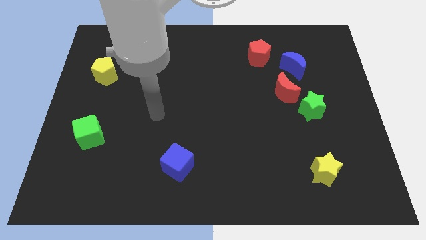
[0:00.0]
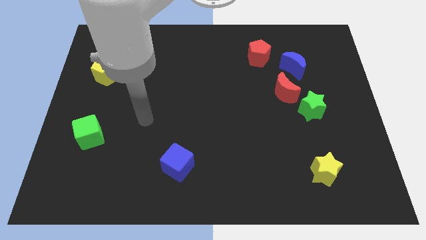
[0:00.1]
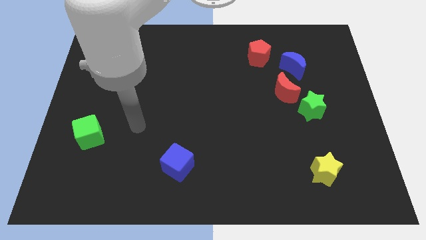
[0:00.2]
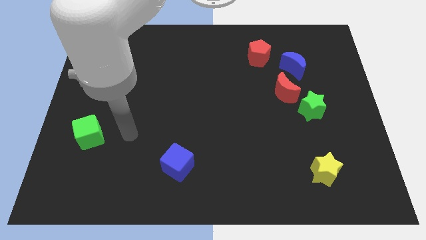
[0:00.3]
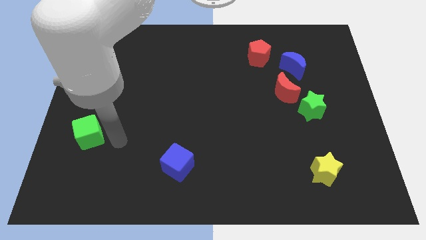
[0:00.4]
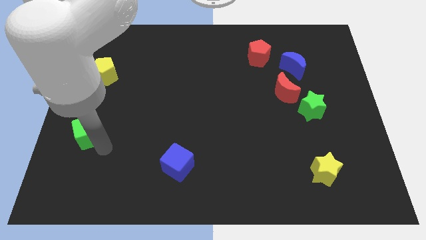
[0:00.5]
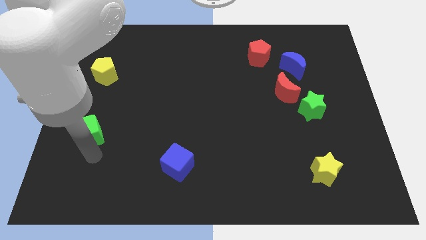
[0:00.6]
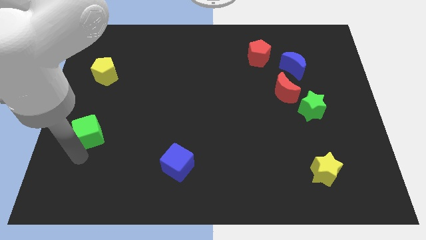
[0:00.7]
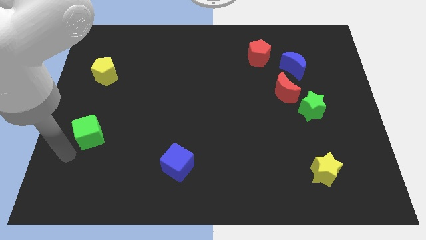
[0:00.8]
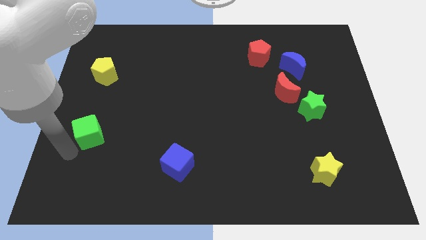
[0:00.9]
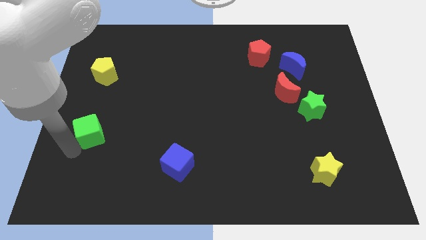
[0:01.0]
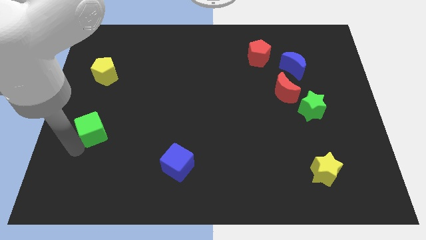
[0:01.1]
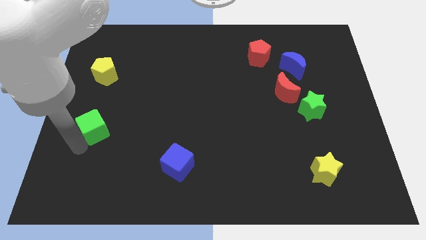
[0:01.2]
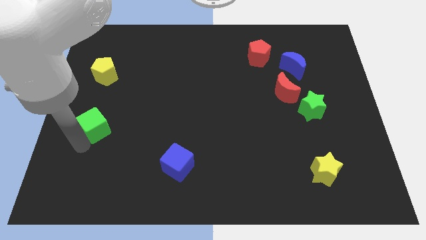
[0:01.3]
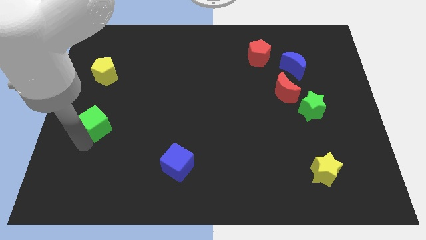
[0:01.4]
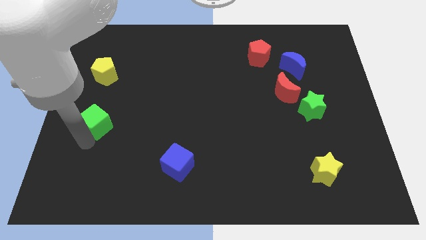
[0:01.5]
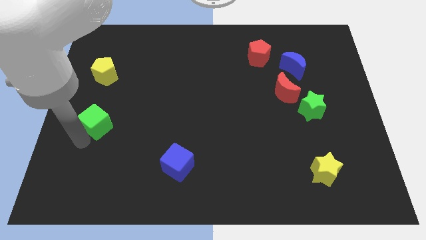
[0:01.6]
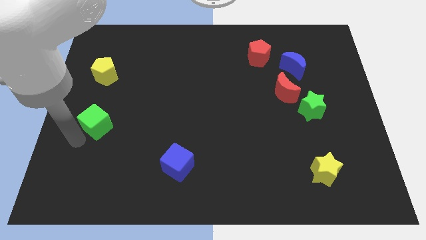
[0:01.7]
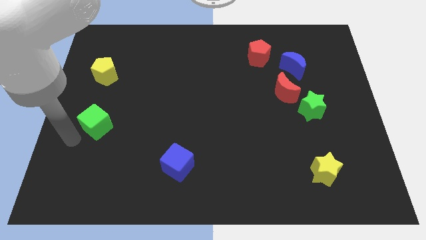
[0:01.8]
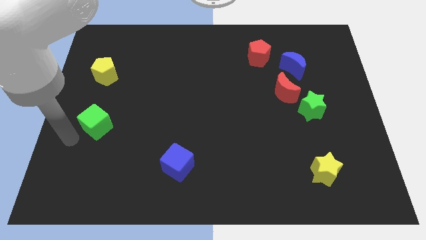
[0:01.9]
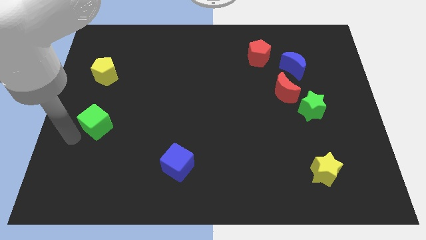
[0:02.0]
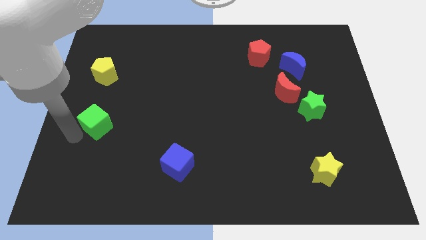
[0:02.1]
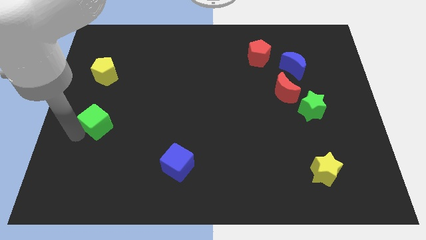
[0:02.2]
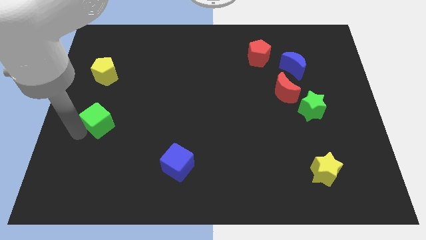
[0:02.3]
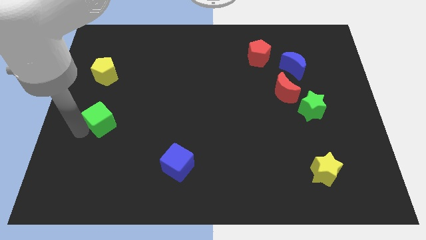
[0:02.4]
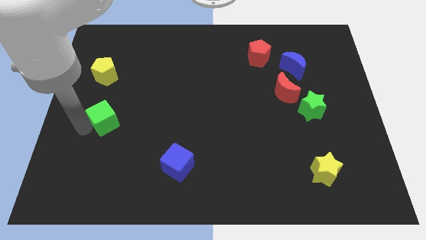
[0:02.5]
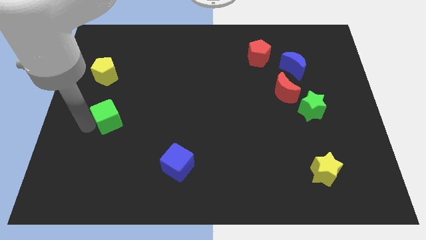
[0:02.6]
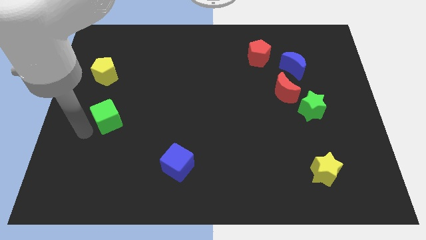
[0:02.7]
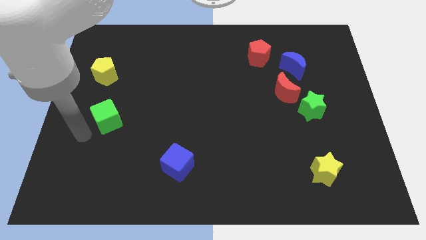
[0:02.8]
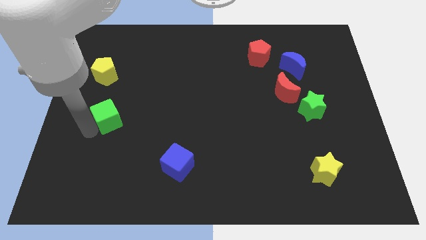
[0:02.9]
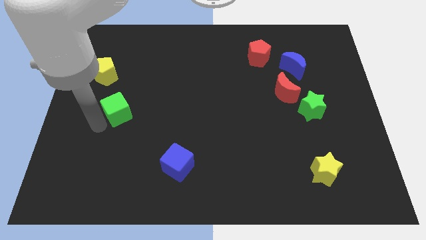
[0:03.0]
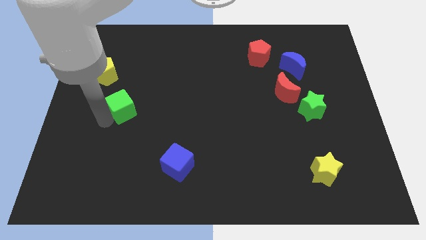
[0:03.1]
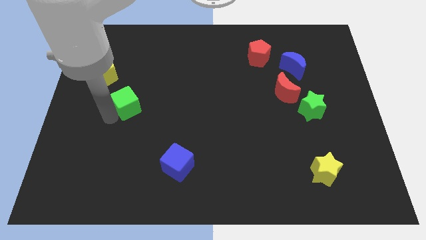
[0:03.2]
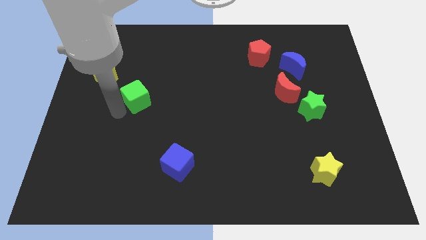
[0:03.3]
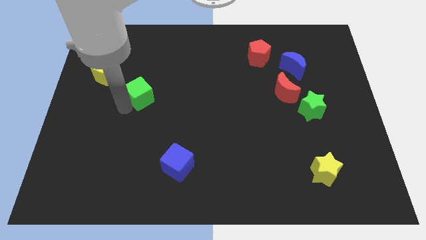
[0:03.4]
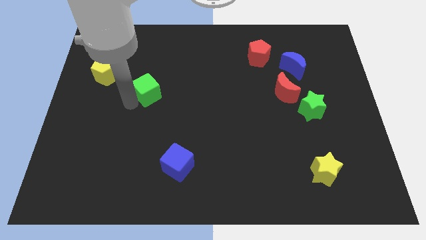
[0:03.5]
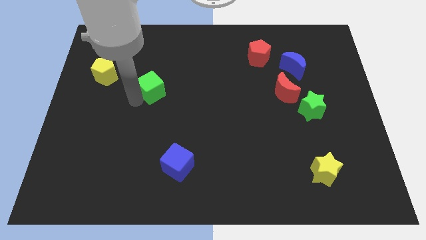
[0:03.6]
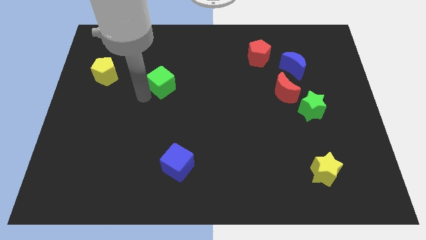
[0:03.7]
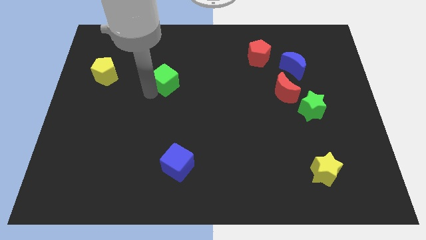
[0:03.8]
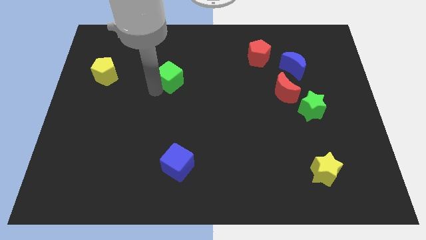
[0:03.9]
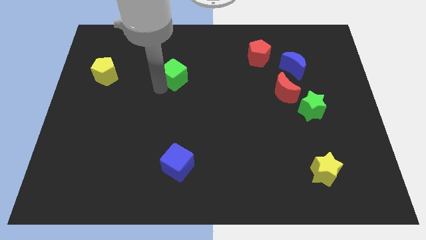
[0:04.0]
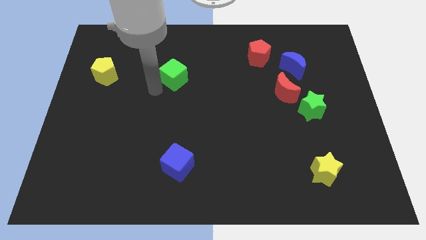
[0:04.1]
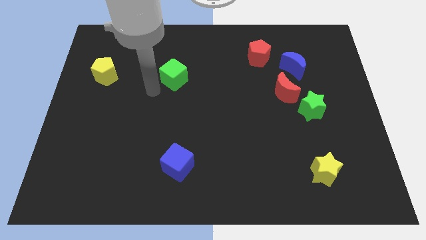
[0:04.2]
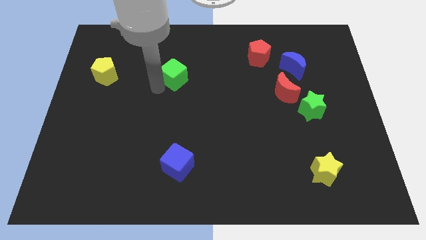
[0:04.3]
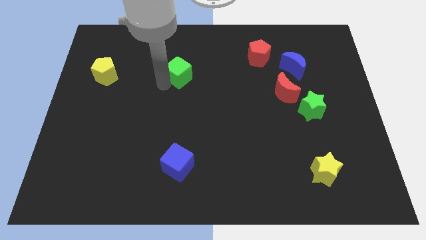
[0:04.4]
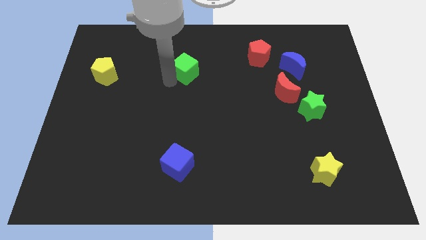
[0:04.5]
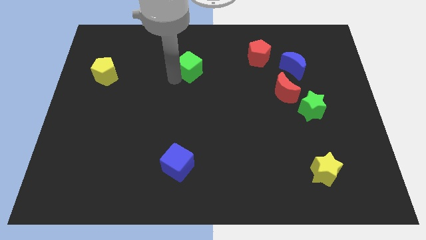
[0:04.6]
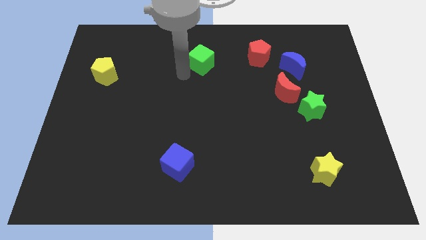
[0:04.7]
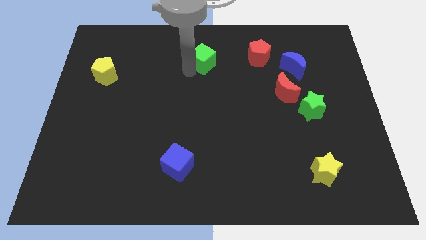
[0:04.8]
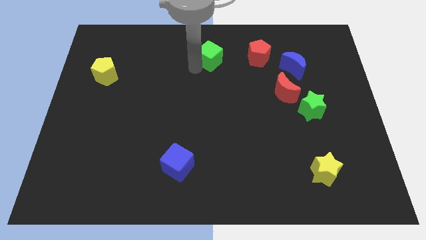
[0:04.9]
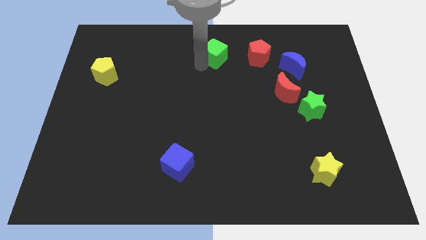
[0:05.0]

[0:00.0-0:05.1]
move the green cube to the top

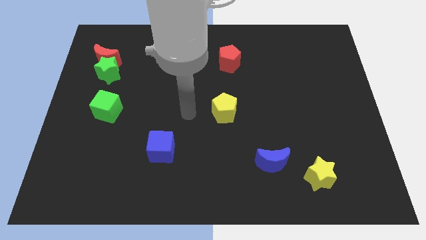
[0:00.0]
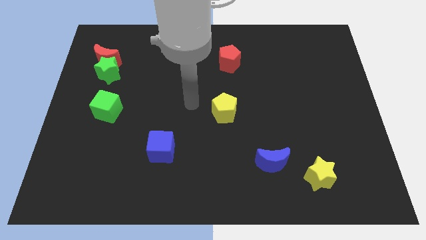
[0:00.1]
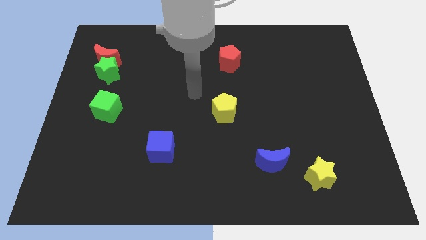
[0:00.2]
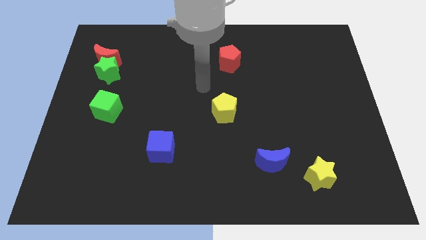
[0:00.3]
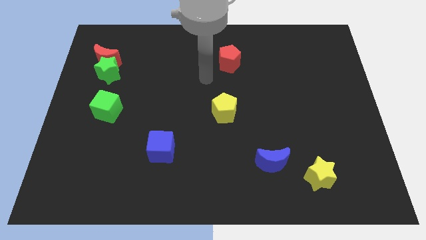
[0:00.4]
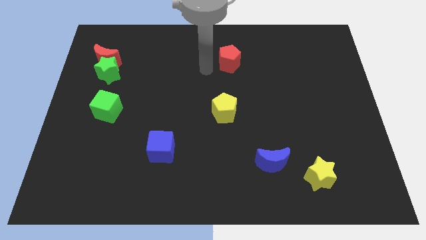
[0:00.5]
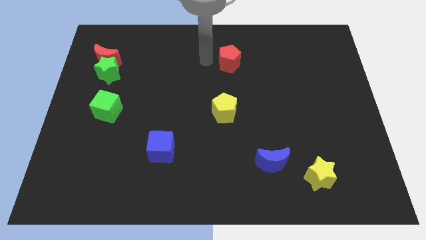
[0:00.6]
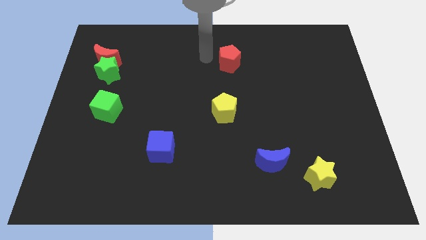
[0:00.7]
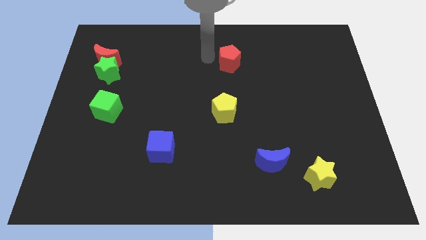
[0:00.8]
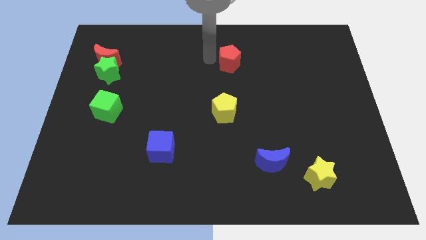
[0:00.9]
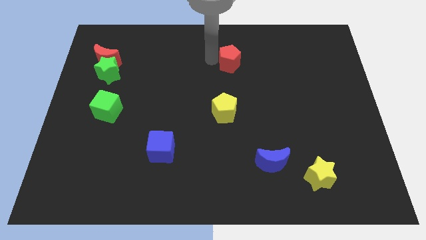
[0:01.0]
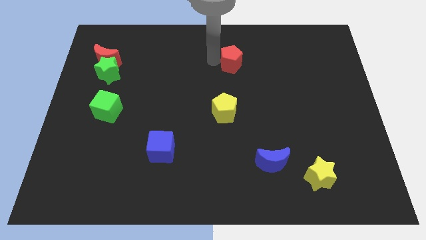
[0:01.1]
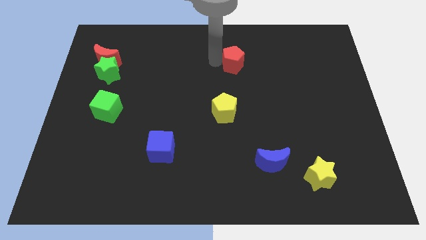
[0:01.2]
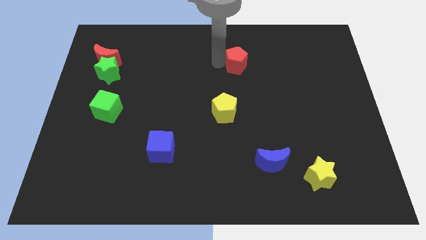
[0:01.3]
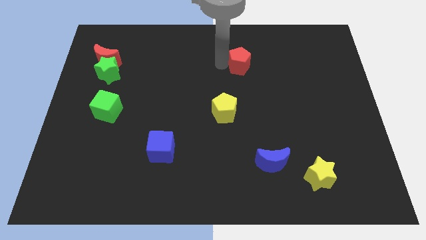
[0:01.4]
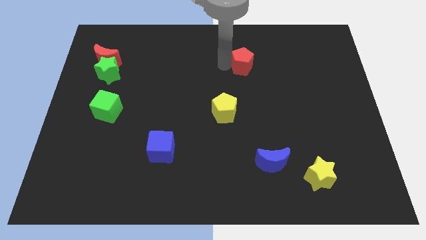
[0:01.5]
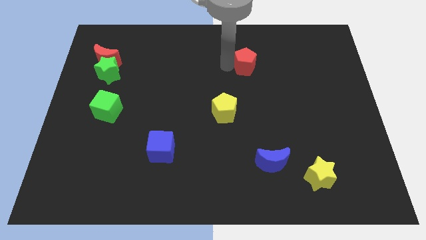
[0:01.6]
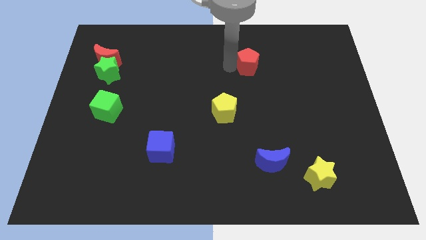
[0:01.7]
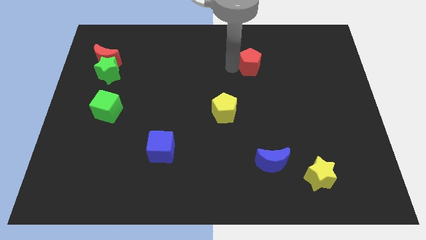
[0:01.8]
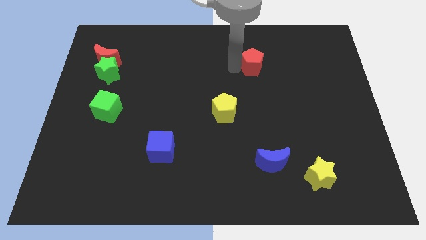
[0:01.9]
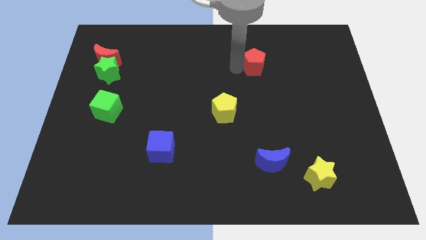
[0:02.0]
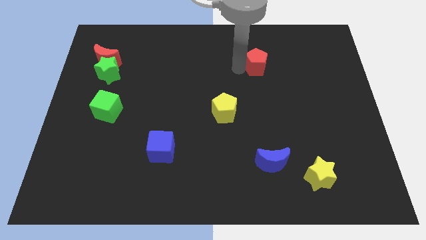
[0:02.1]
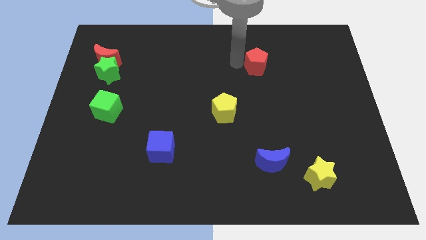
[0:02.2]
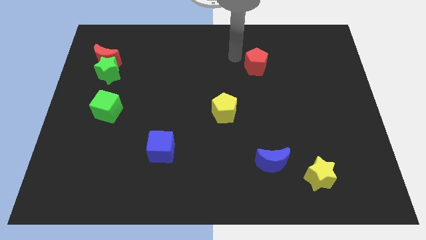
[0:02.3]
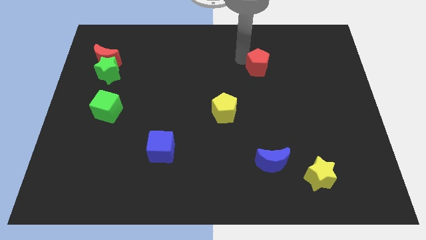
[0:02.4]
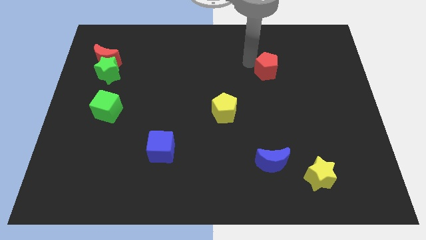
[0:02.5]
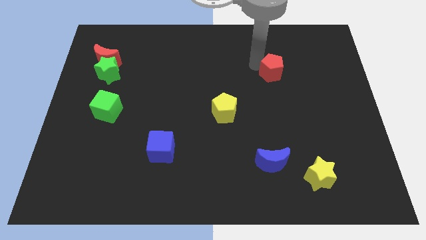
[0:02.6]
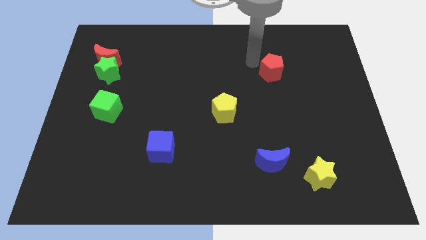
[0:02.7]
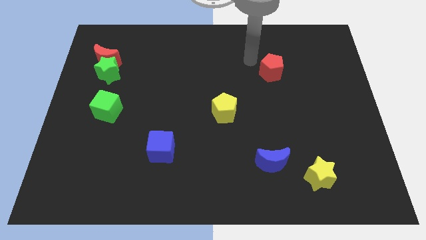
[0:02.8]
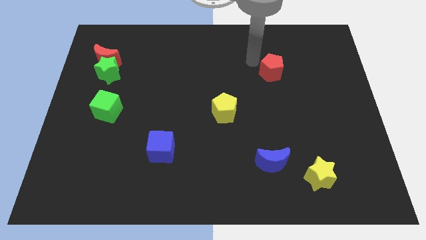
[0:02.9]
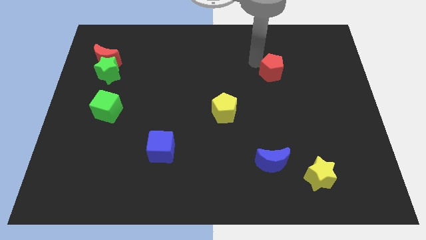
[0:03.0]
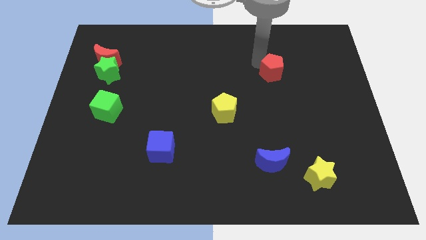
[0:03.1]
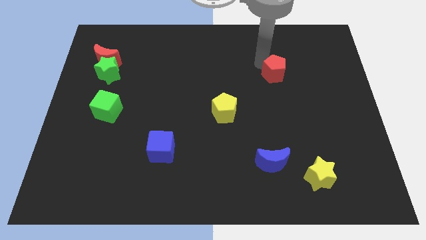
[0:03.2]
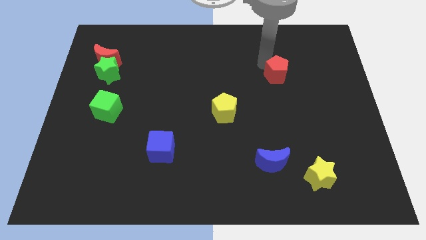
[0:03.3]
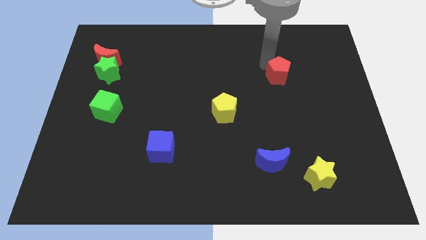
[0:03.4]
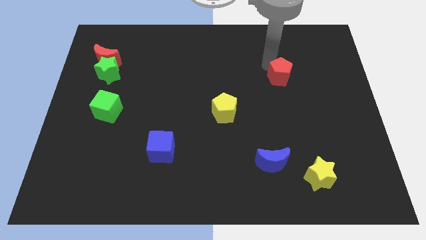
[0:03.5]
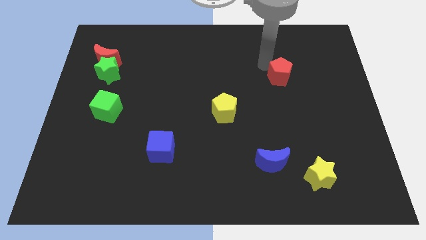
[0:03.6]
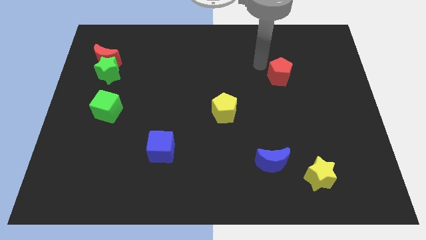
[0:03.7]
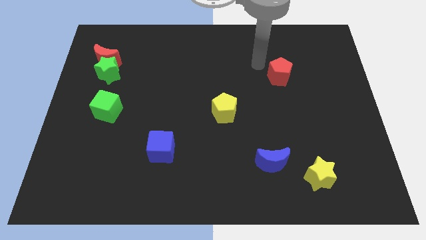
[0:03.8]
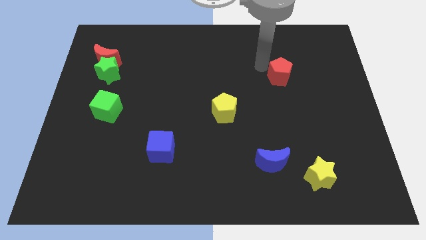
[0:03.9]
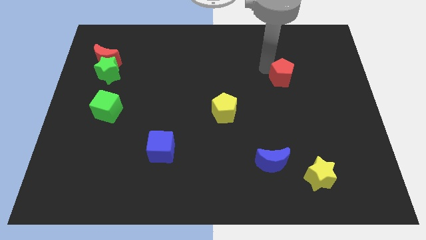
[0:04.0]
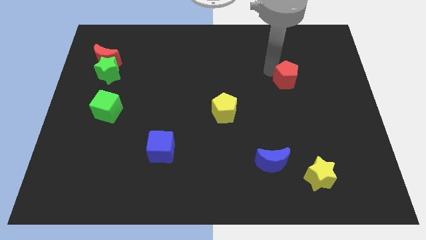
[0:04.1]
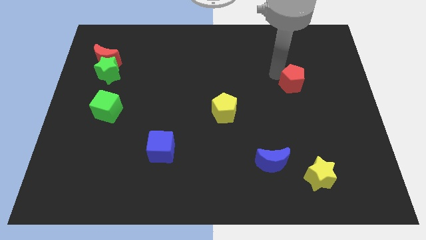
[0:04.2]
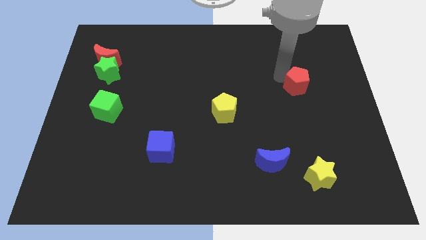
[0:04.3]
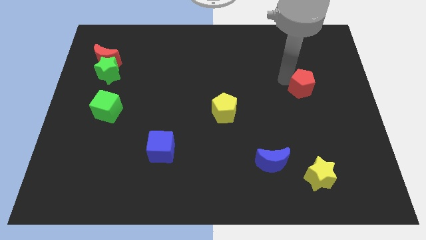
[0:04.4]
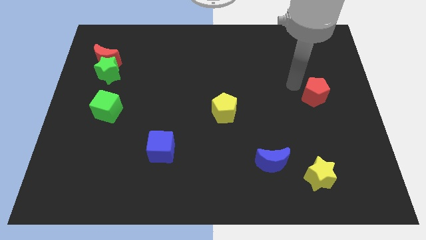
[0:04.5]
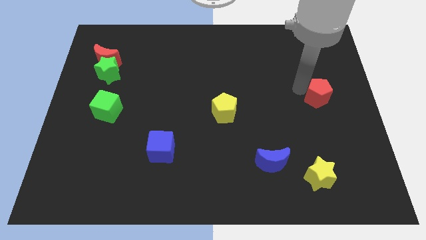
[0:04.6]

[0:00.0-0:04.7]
put the red pentagon to the right side
